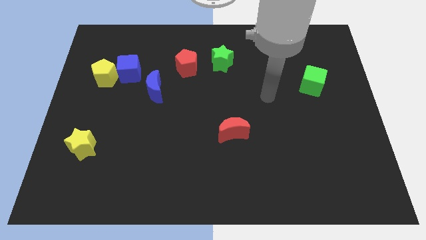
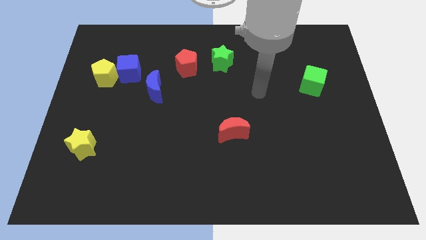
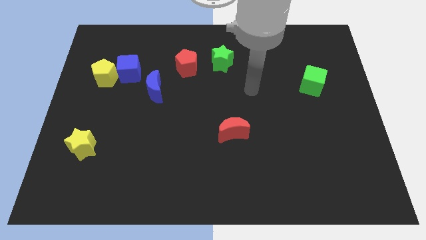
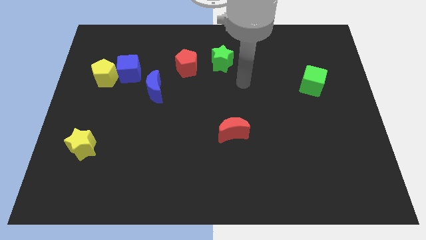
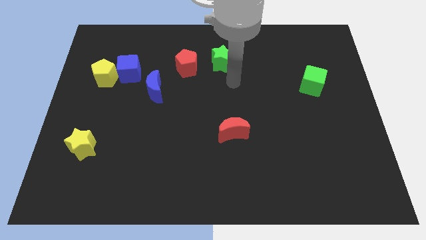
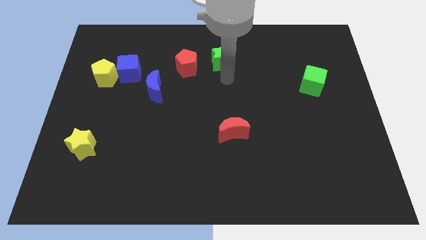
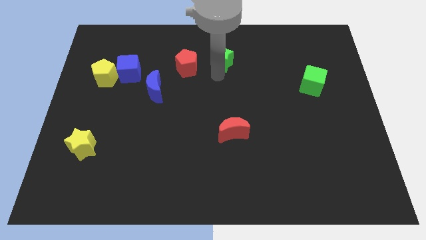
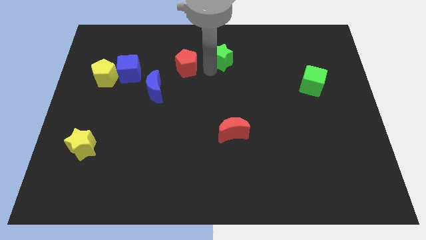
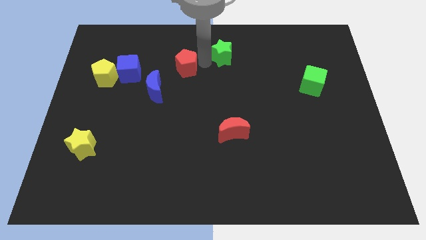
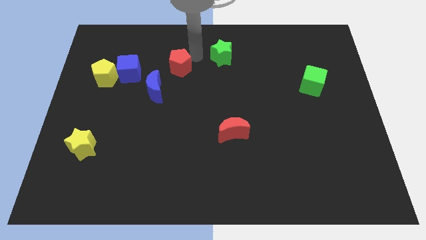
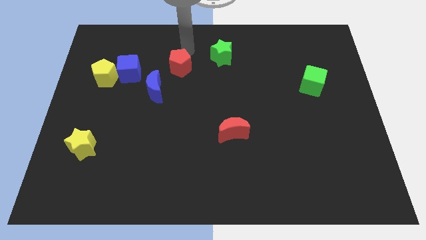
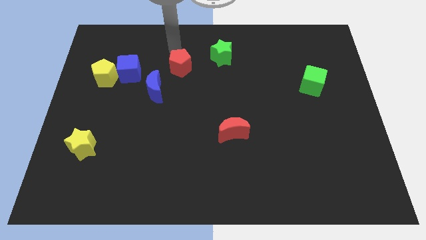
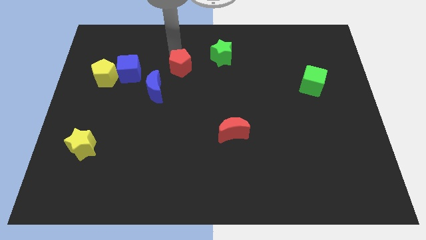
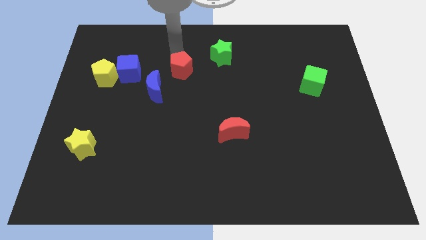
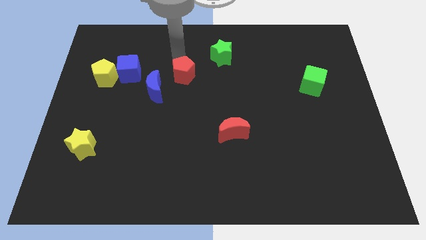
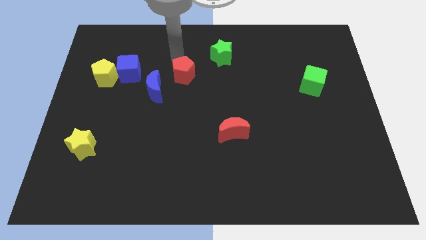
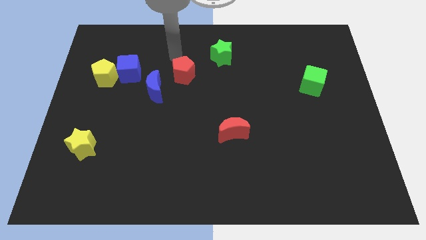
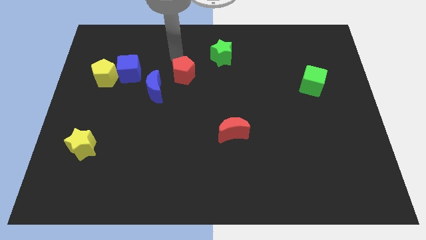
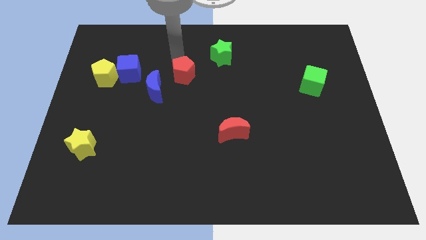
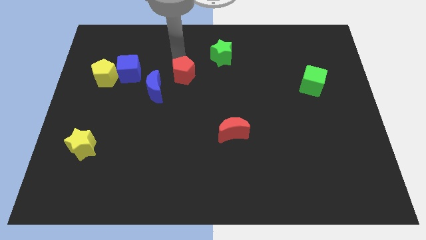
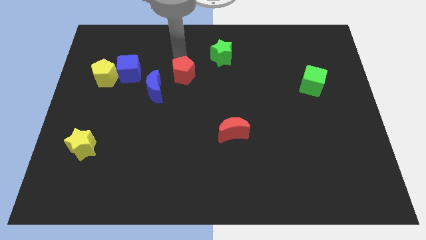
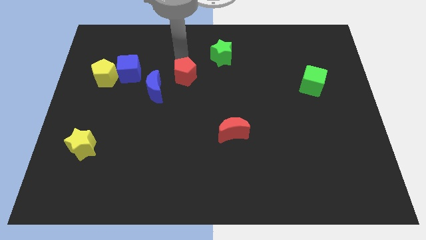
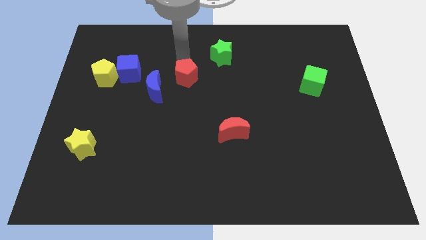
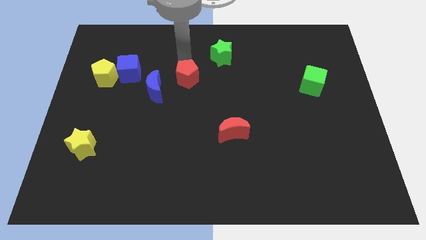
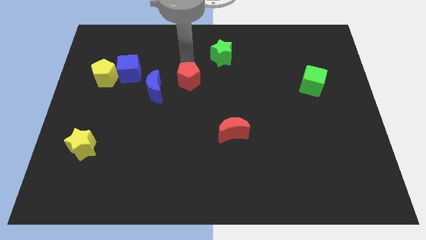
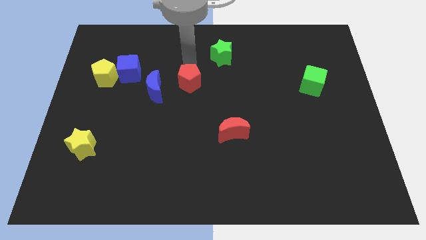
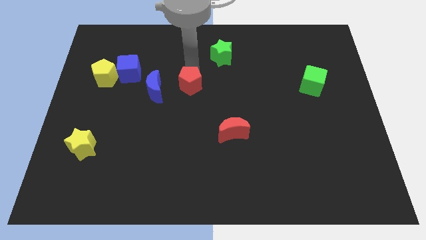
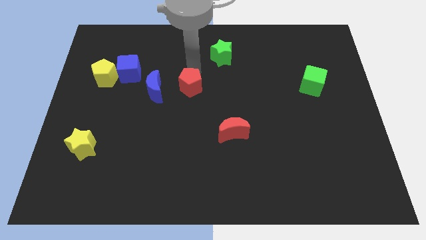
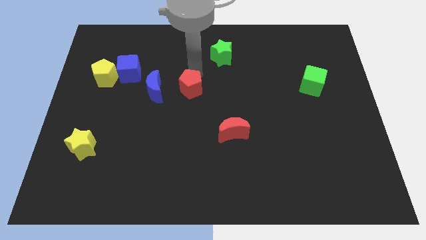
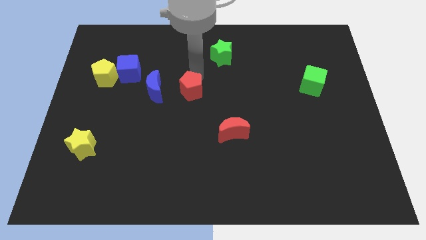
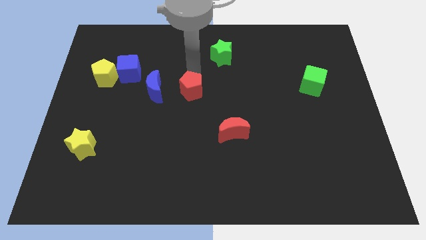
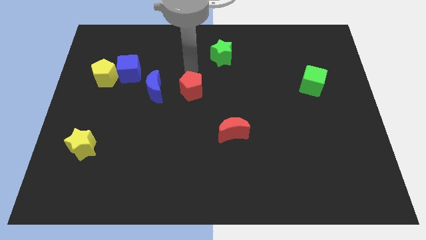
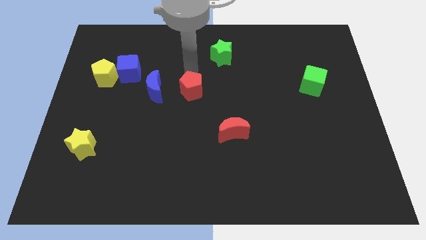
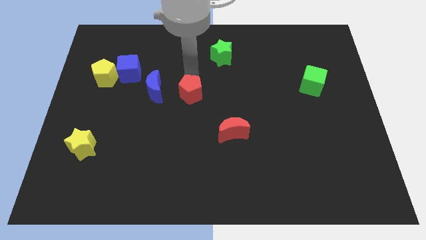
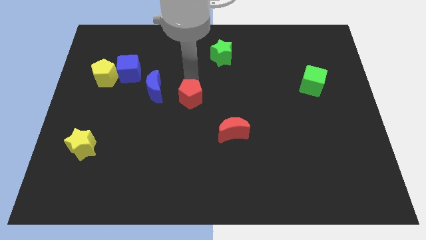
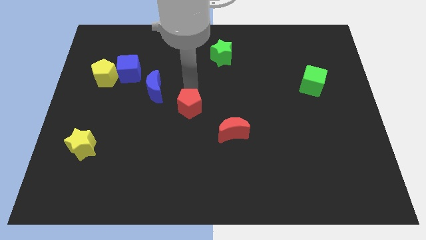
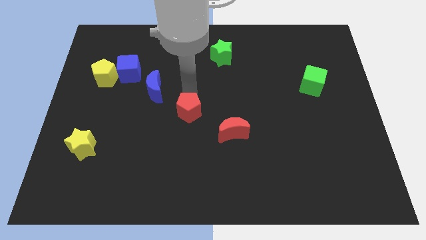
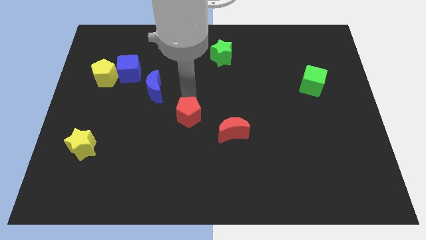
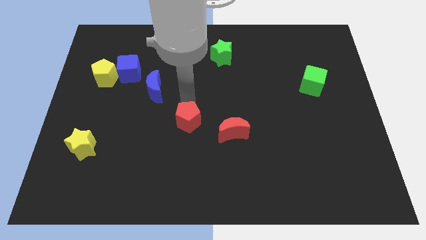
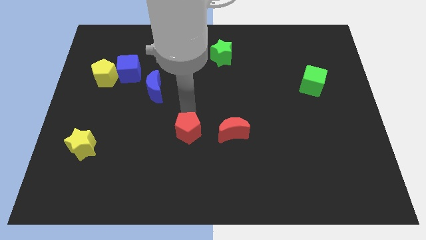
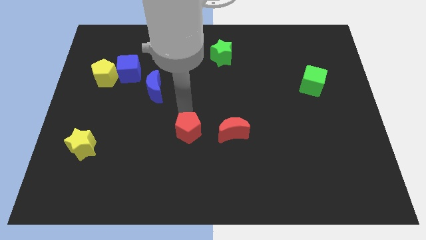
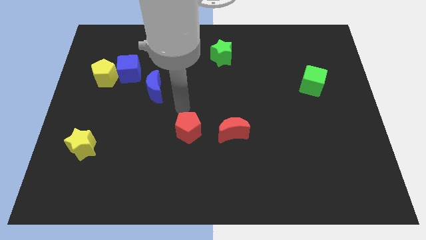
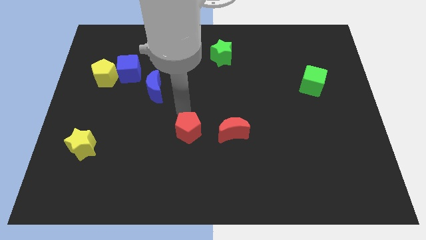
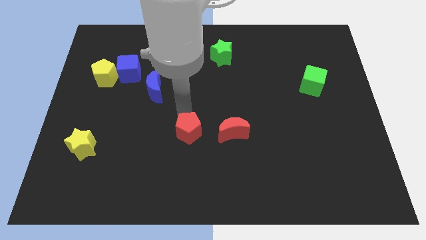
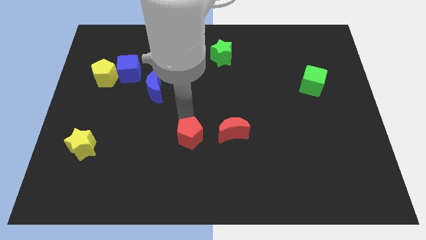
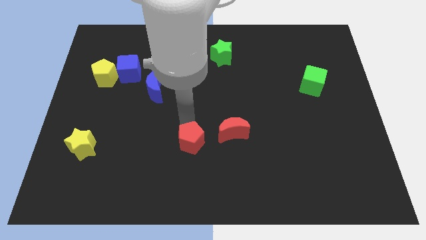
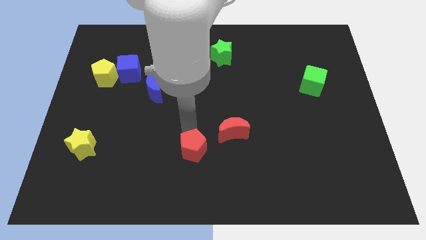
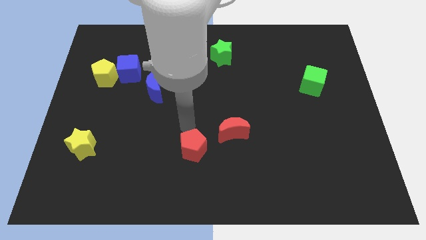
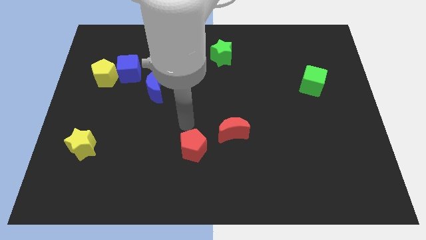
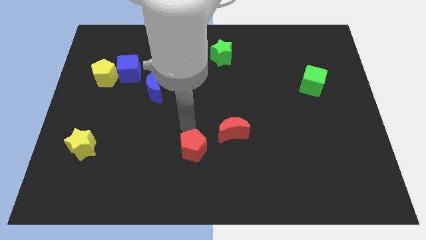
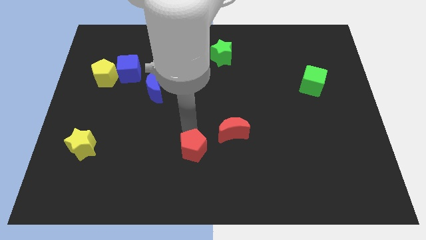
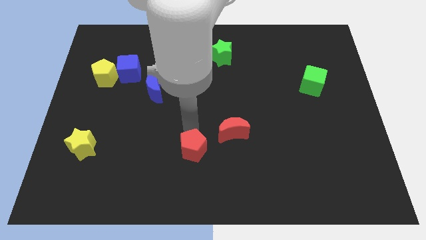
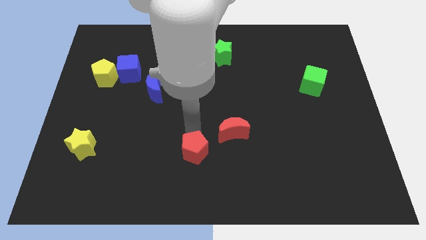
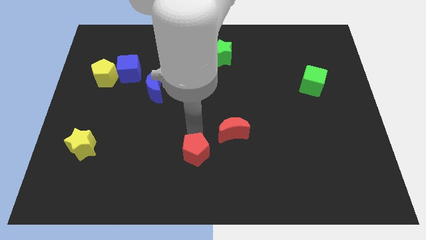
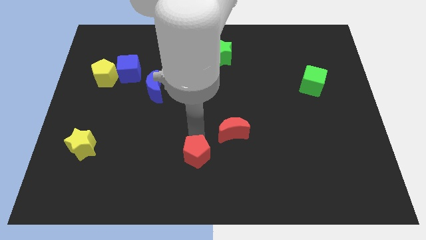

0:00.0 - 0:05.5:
put the red pentagon to the bottom side

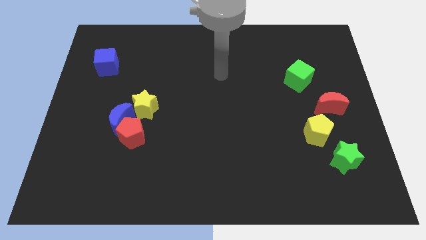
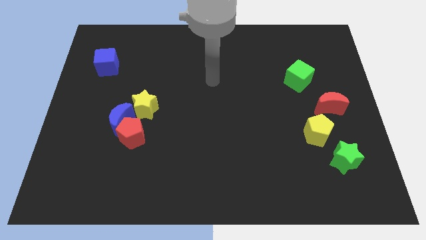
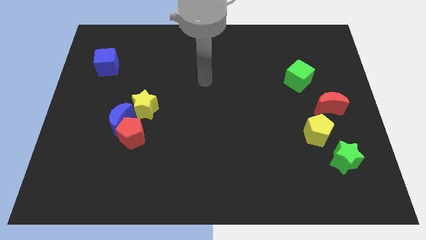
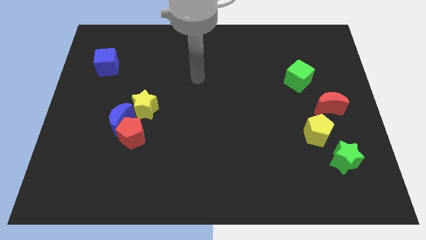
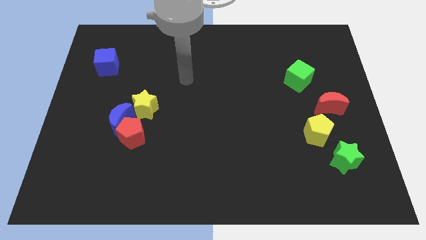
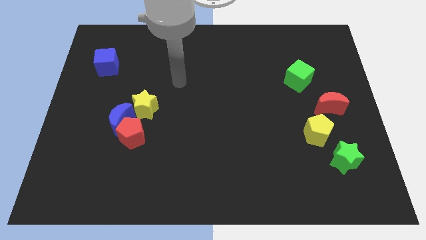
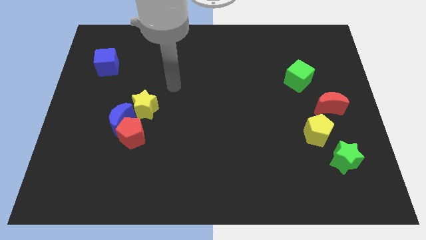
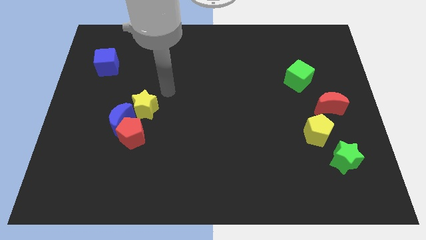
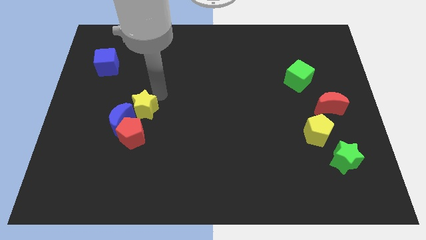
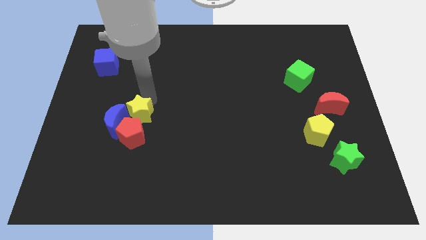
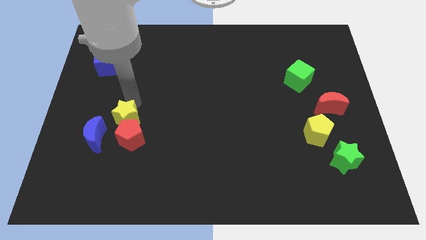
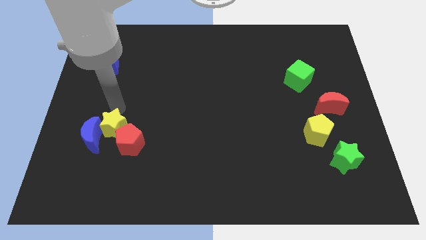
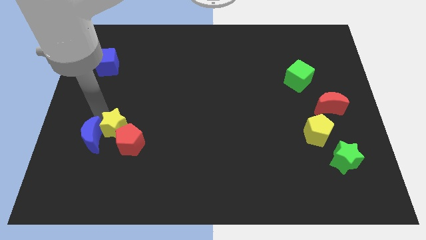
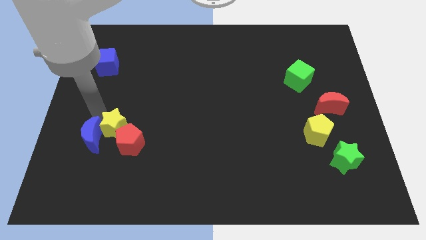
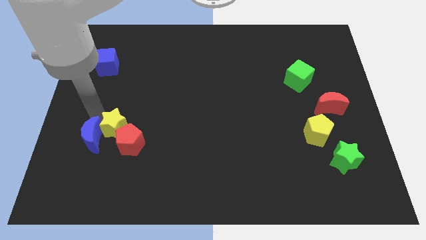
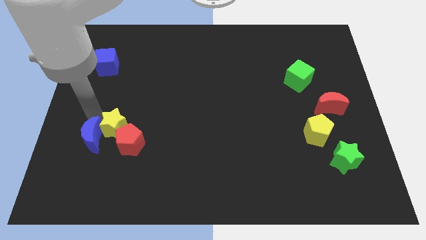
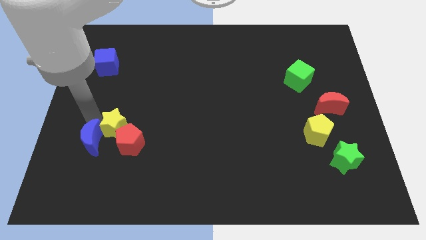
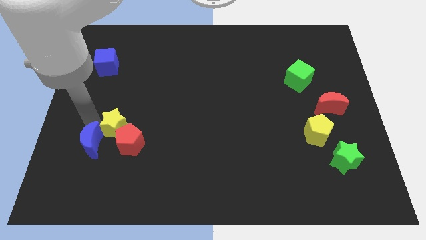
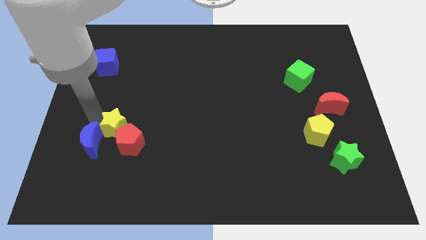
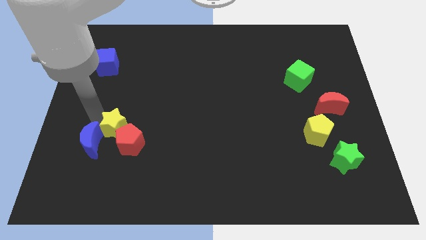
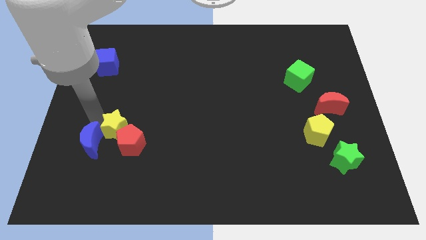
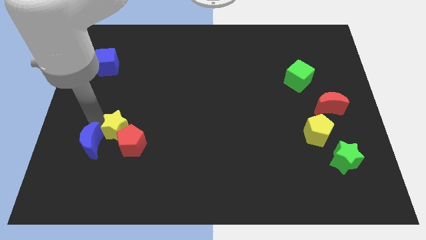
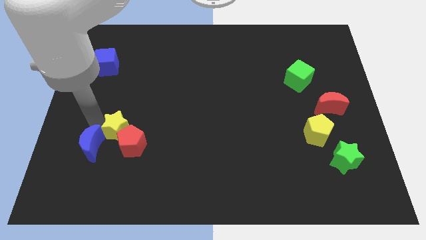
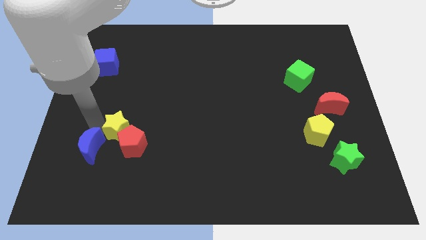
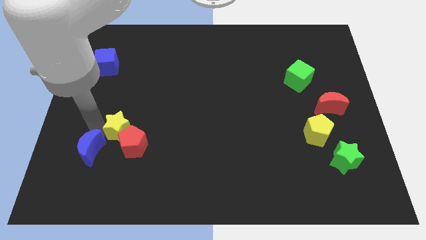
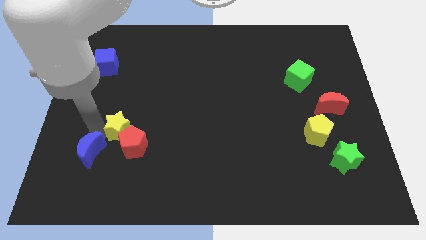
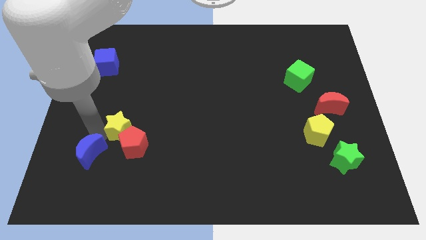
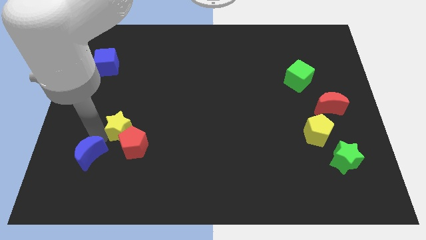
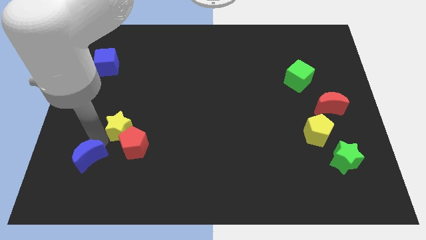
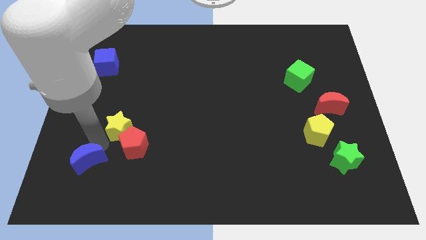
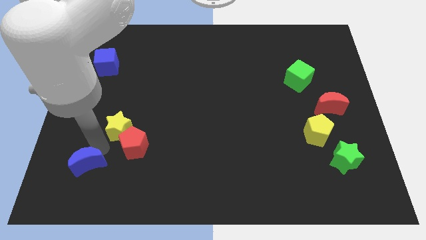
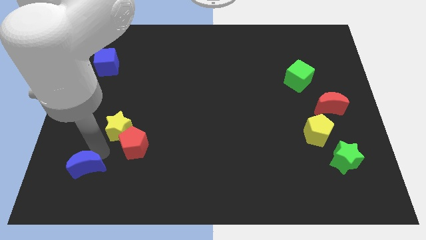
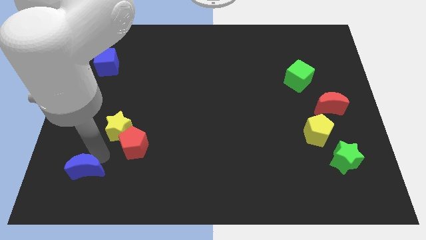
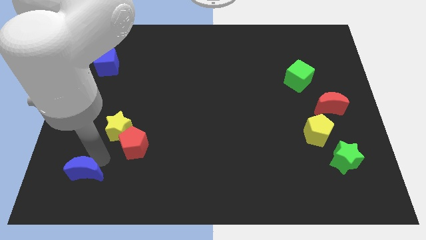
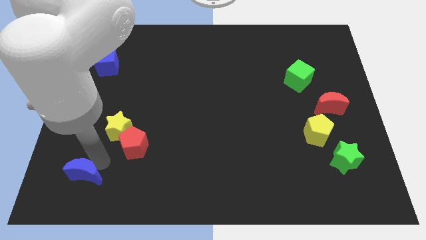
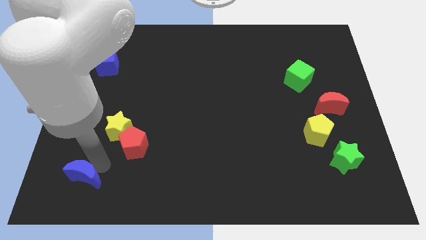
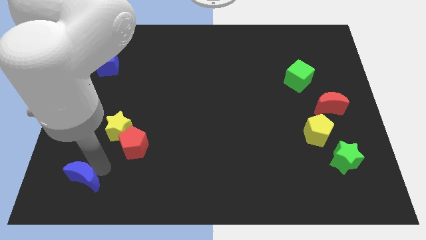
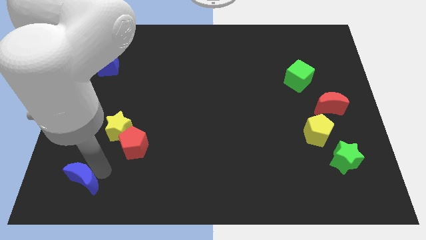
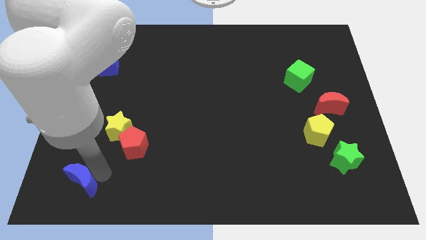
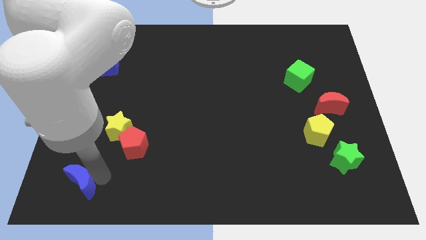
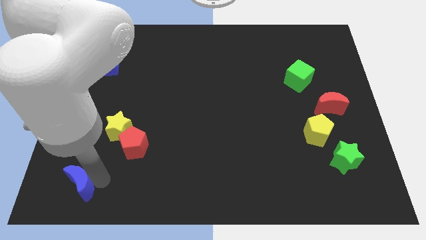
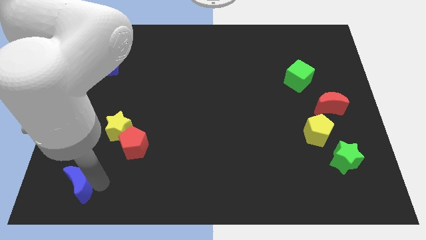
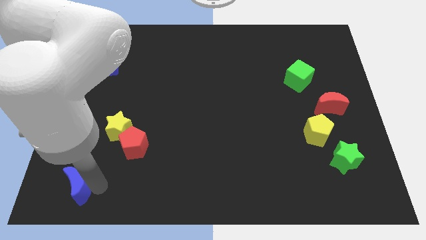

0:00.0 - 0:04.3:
slide the blue moon to the lower left corner
